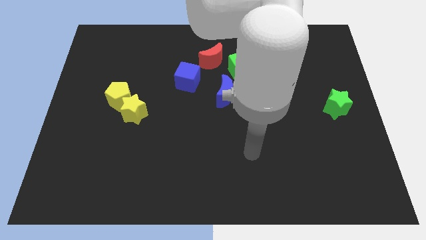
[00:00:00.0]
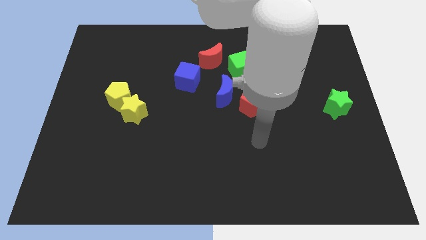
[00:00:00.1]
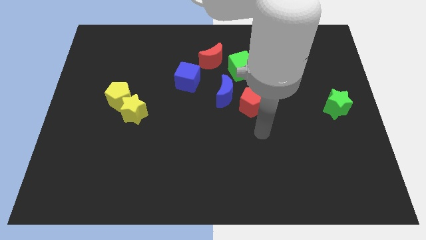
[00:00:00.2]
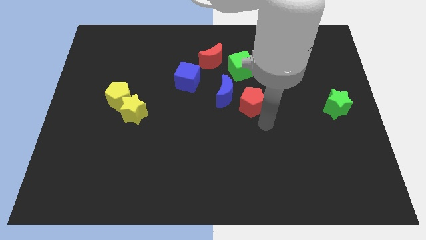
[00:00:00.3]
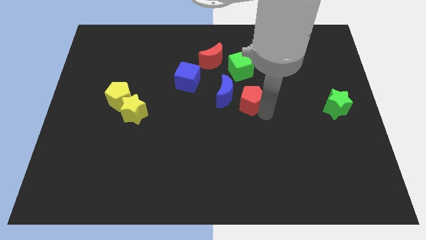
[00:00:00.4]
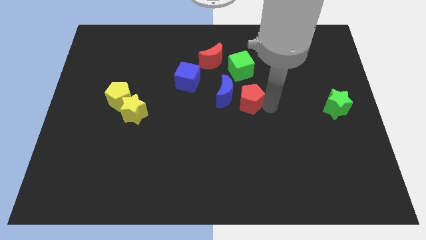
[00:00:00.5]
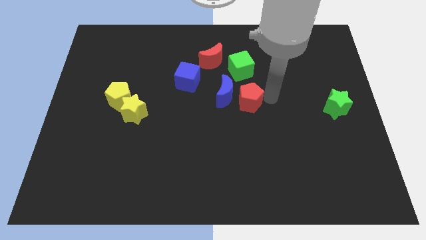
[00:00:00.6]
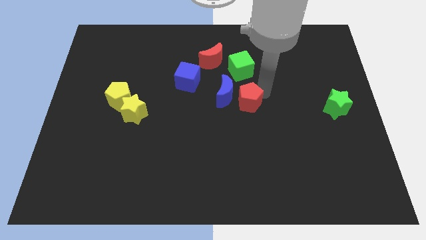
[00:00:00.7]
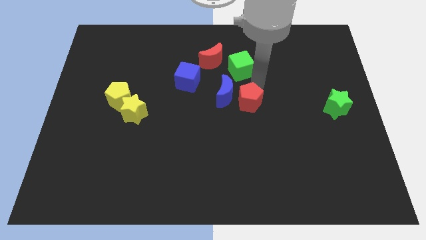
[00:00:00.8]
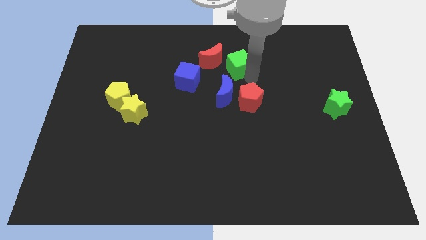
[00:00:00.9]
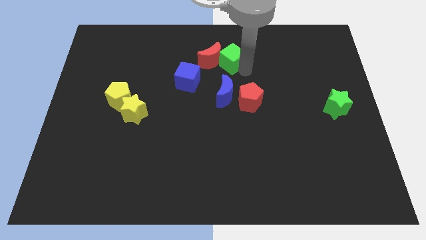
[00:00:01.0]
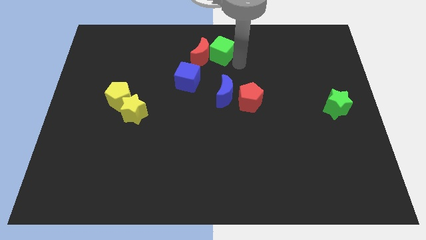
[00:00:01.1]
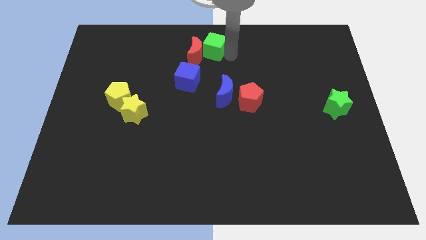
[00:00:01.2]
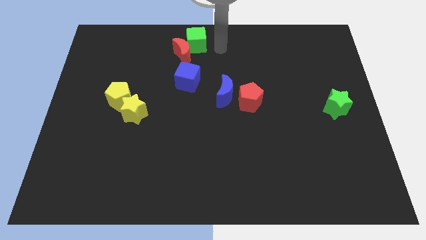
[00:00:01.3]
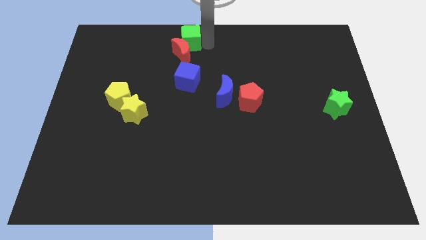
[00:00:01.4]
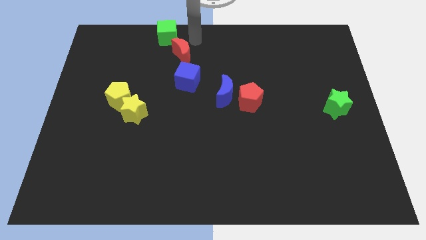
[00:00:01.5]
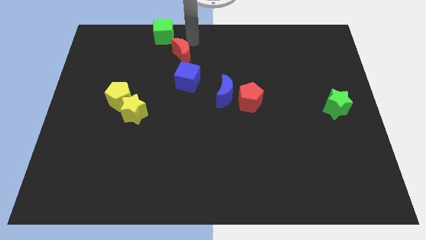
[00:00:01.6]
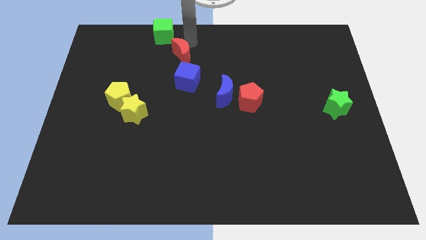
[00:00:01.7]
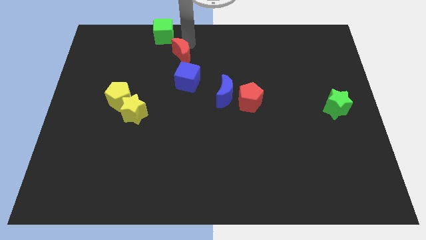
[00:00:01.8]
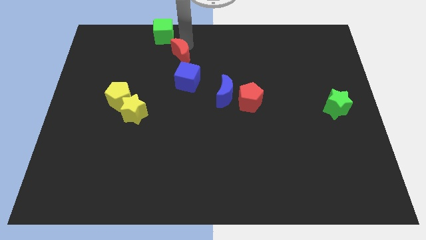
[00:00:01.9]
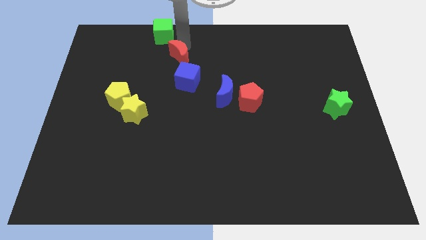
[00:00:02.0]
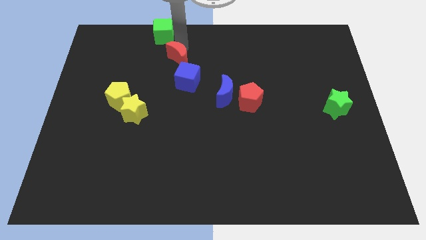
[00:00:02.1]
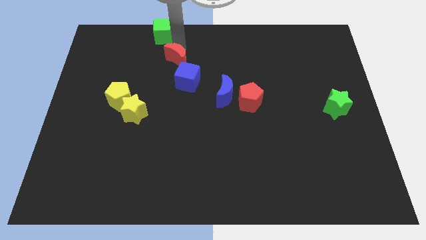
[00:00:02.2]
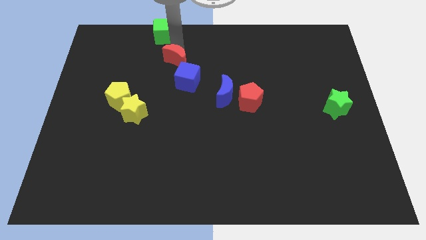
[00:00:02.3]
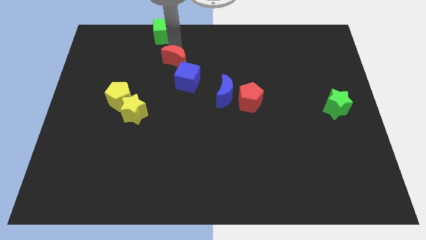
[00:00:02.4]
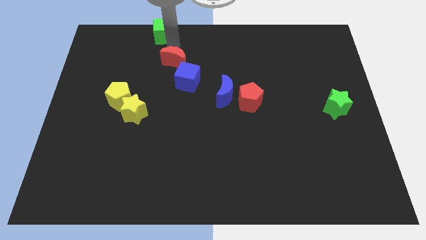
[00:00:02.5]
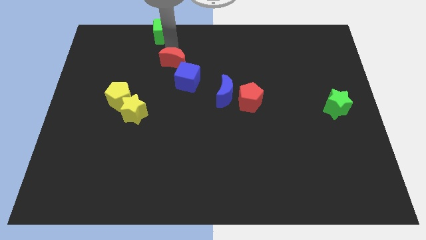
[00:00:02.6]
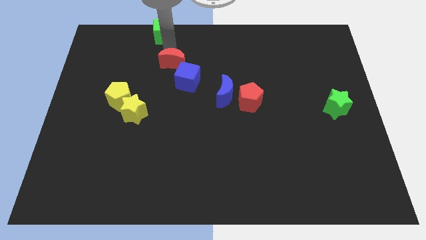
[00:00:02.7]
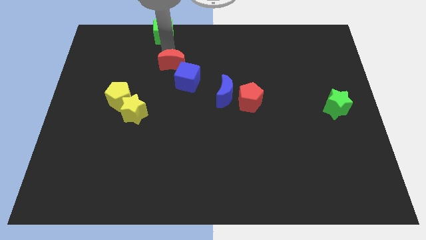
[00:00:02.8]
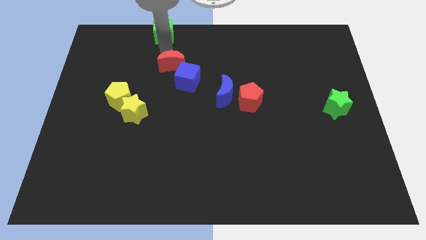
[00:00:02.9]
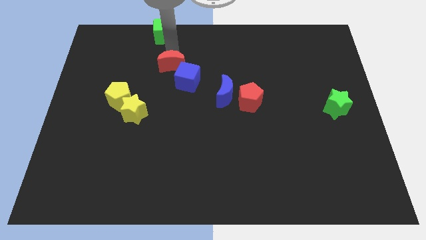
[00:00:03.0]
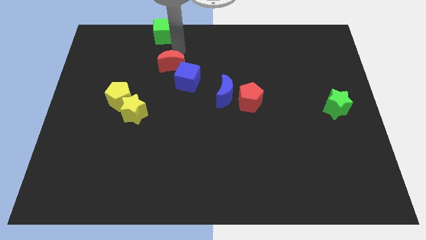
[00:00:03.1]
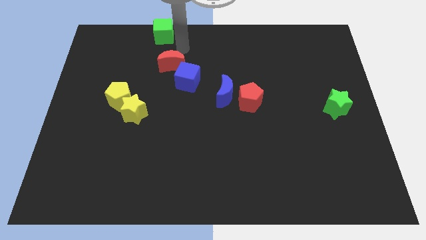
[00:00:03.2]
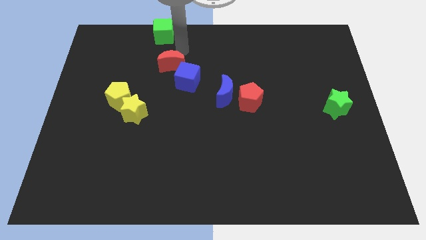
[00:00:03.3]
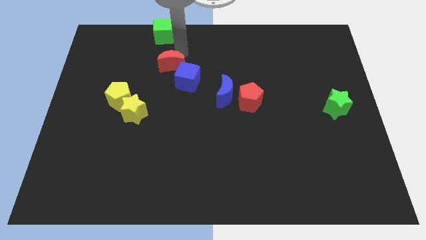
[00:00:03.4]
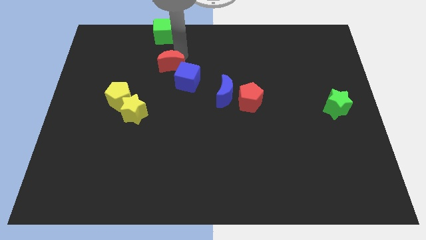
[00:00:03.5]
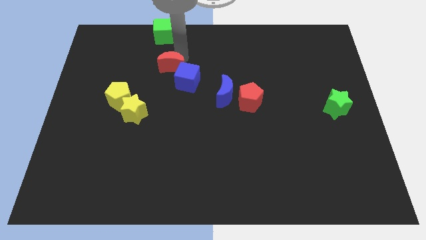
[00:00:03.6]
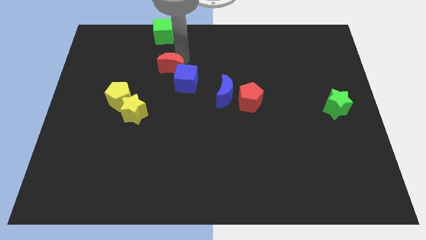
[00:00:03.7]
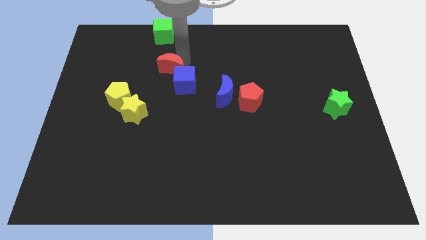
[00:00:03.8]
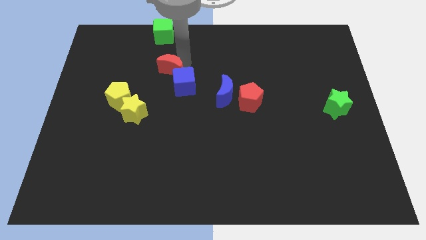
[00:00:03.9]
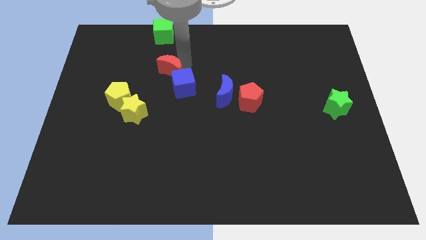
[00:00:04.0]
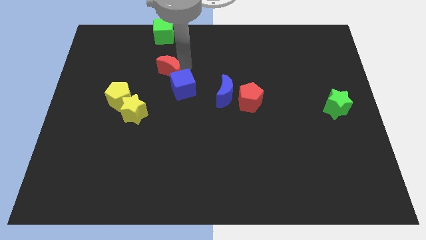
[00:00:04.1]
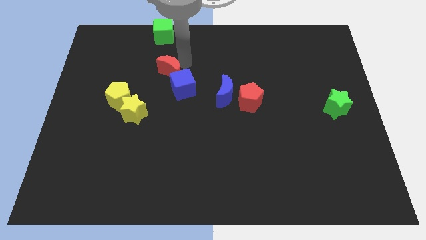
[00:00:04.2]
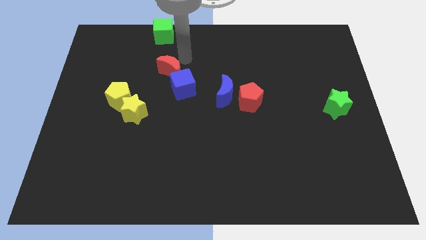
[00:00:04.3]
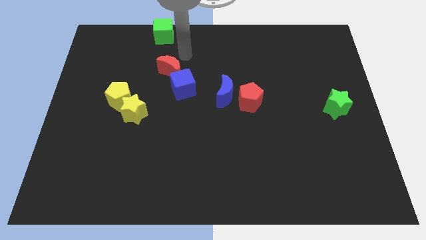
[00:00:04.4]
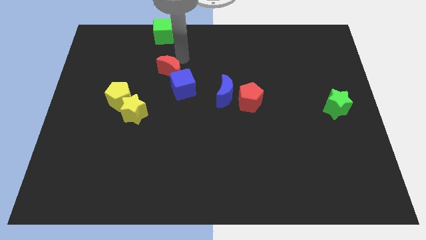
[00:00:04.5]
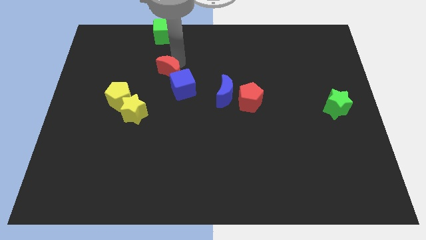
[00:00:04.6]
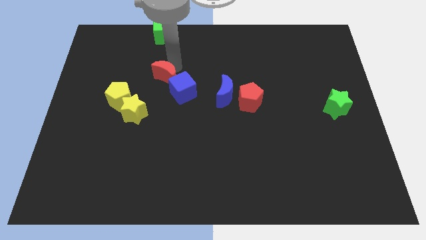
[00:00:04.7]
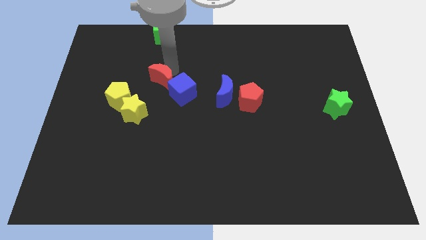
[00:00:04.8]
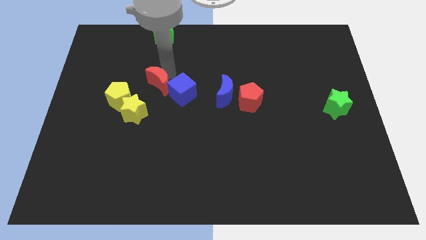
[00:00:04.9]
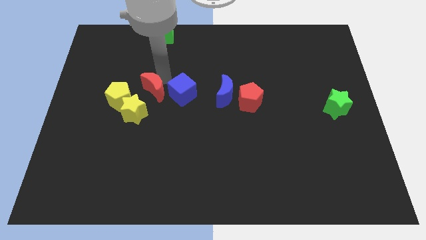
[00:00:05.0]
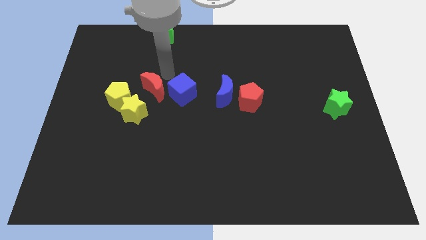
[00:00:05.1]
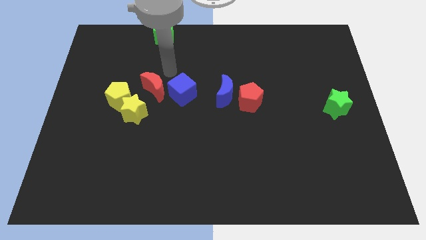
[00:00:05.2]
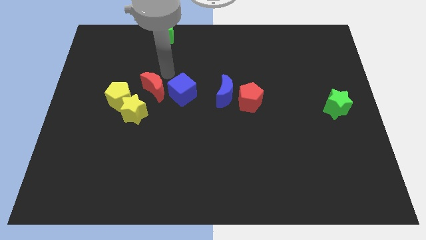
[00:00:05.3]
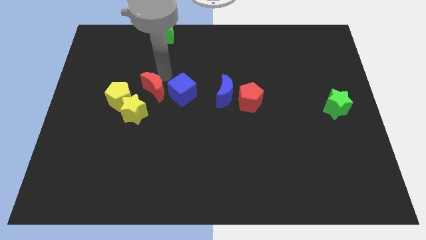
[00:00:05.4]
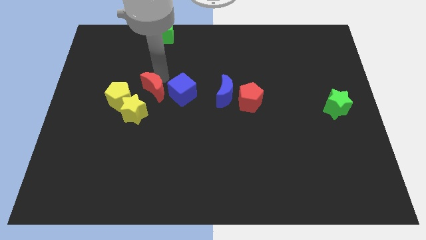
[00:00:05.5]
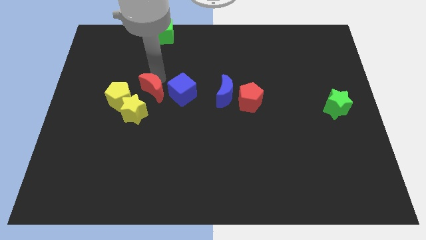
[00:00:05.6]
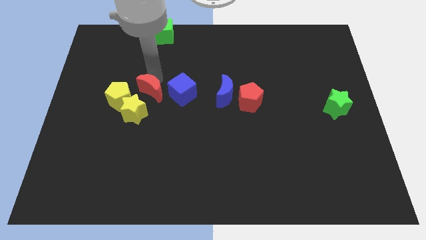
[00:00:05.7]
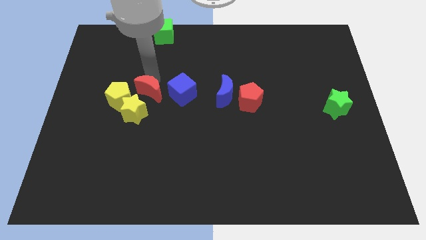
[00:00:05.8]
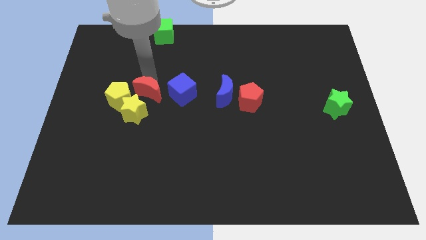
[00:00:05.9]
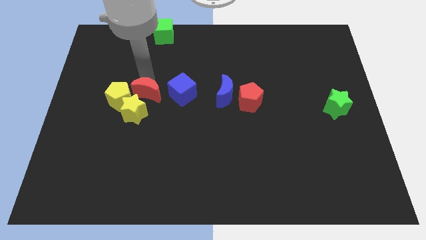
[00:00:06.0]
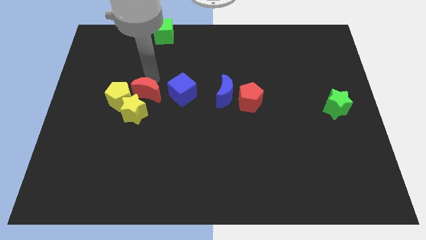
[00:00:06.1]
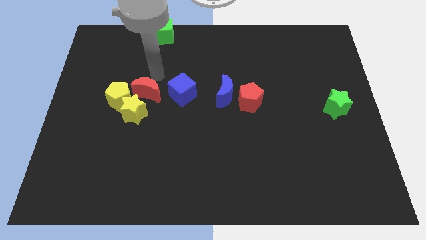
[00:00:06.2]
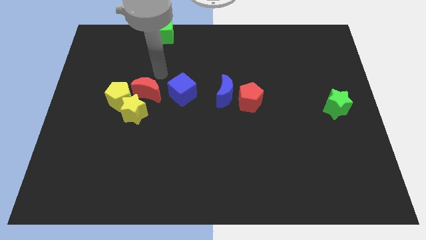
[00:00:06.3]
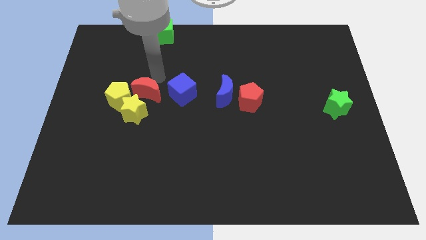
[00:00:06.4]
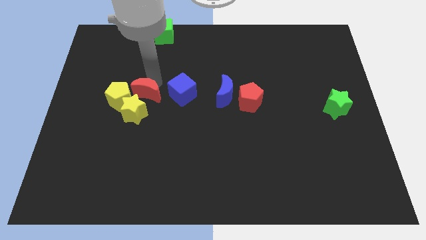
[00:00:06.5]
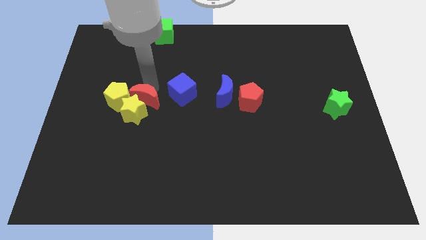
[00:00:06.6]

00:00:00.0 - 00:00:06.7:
put the red moon next to the yellow star

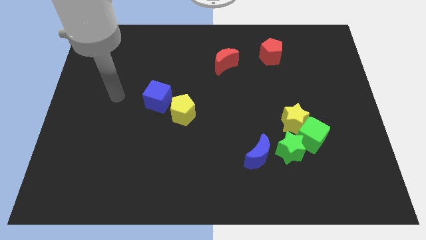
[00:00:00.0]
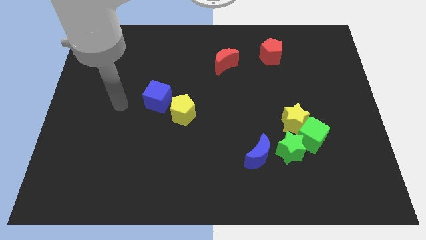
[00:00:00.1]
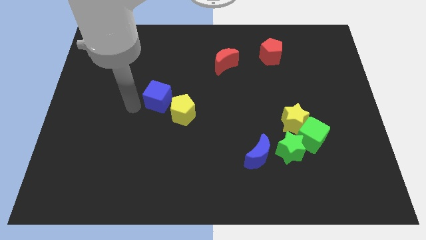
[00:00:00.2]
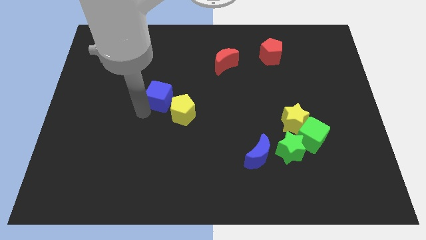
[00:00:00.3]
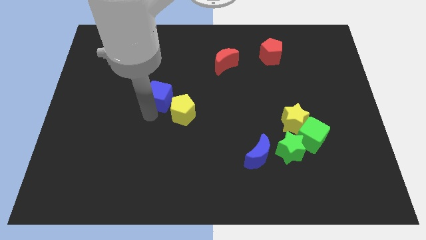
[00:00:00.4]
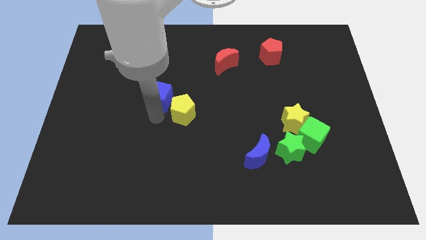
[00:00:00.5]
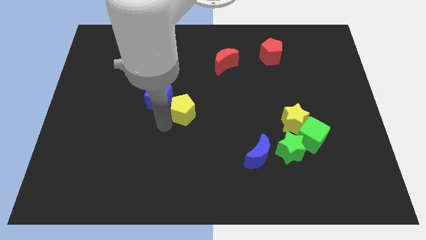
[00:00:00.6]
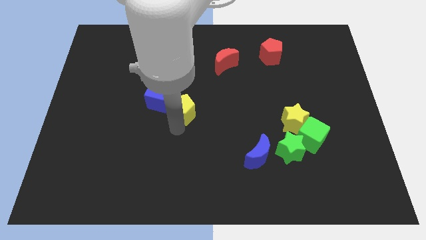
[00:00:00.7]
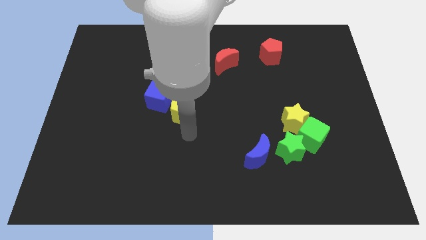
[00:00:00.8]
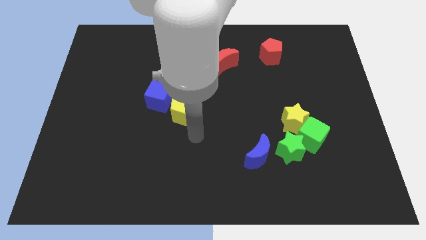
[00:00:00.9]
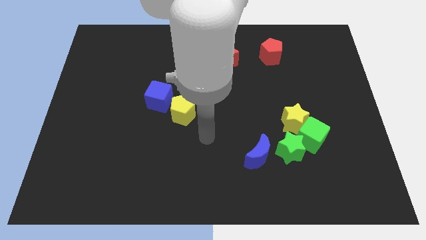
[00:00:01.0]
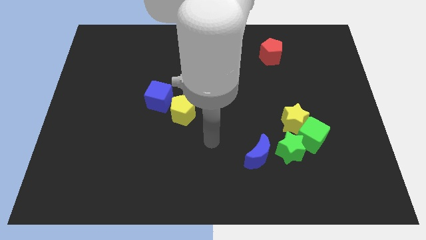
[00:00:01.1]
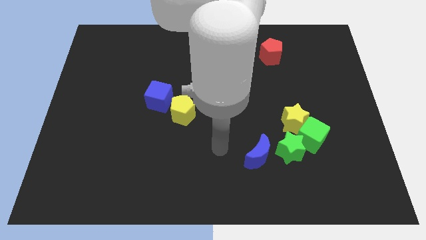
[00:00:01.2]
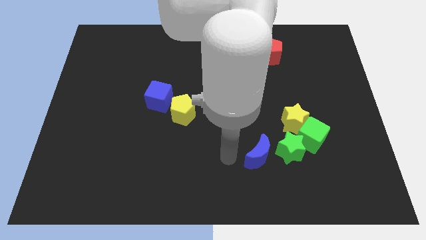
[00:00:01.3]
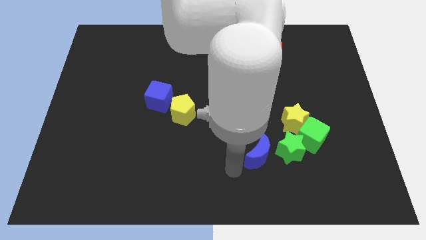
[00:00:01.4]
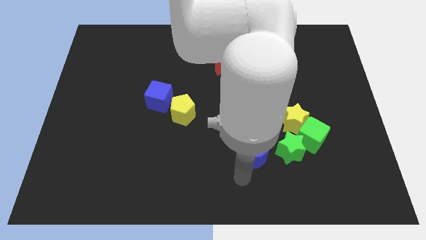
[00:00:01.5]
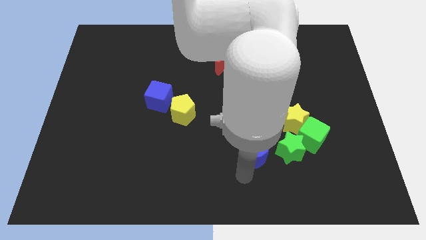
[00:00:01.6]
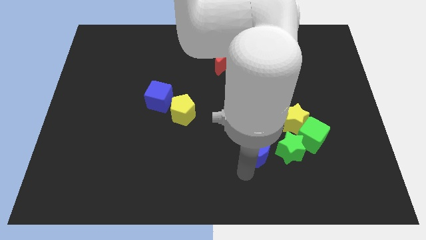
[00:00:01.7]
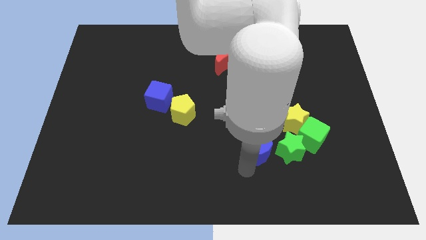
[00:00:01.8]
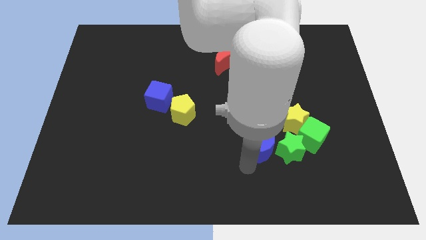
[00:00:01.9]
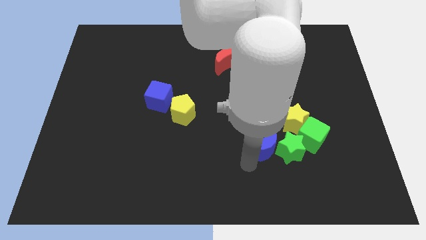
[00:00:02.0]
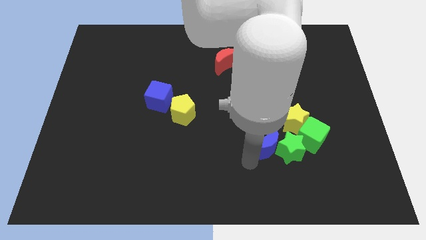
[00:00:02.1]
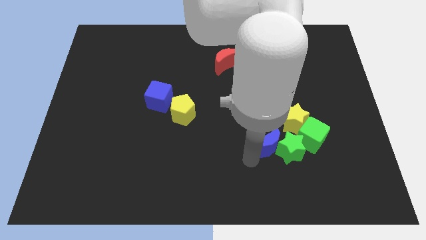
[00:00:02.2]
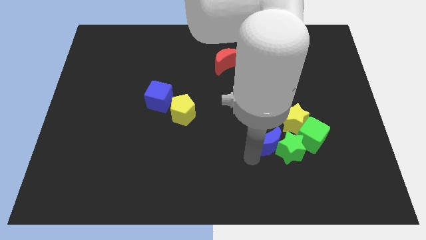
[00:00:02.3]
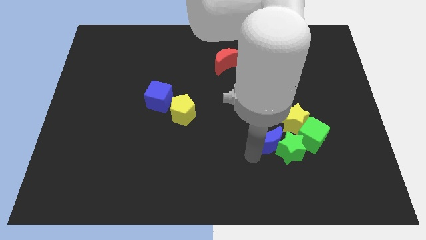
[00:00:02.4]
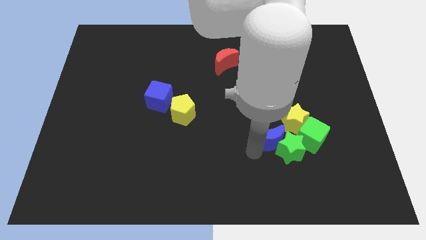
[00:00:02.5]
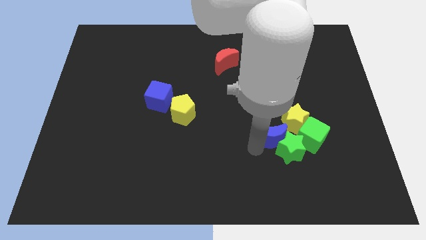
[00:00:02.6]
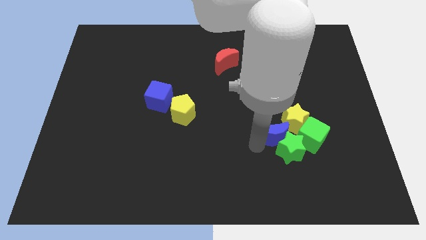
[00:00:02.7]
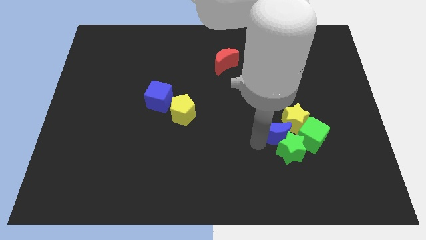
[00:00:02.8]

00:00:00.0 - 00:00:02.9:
put the blue moon next to the yellow star
